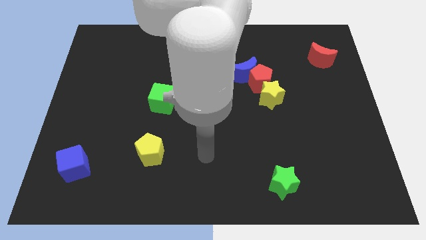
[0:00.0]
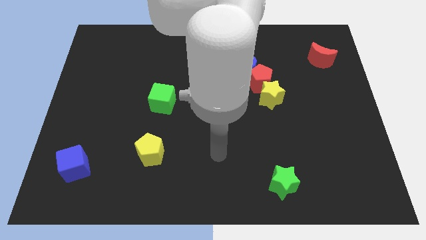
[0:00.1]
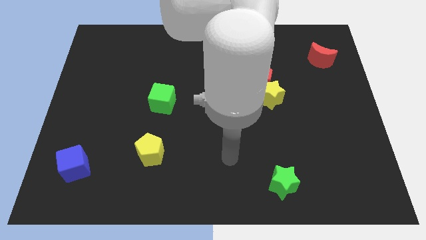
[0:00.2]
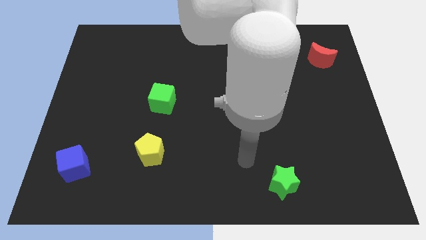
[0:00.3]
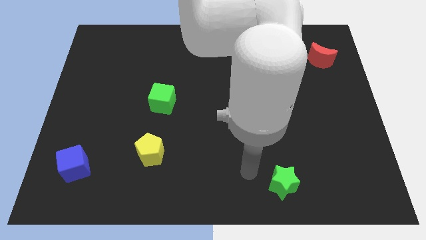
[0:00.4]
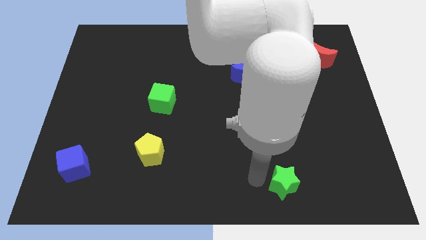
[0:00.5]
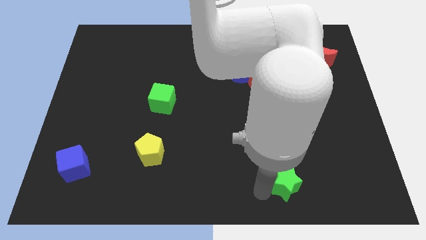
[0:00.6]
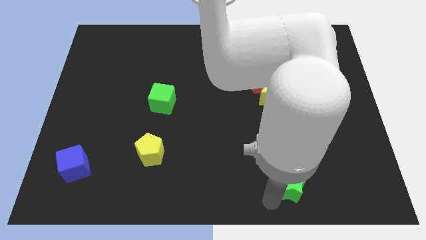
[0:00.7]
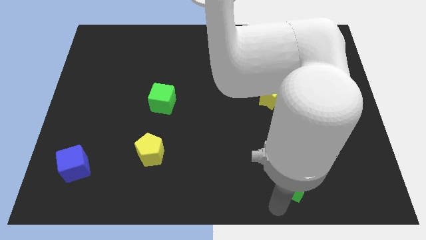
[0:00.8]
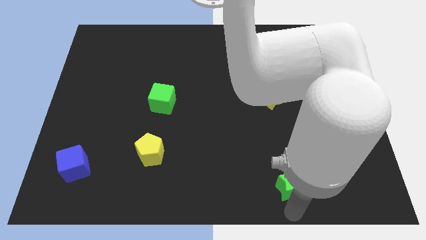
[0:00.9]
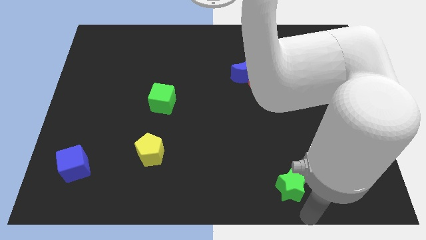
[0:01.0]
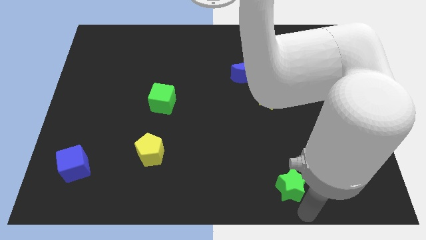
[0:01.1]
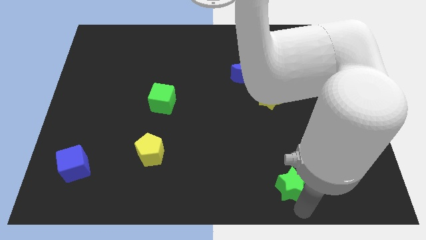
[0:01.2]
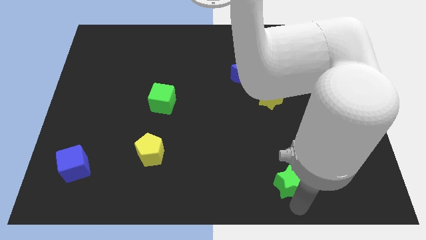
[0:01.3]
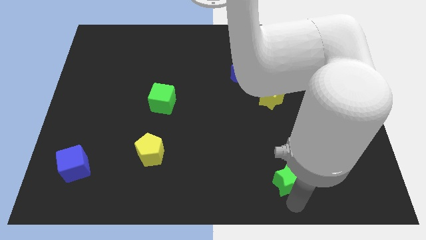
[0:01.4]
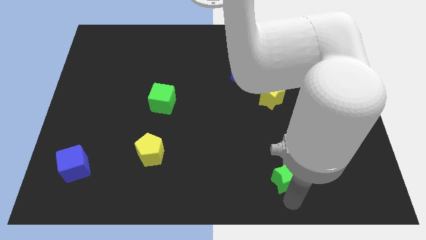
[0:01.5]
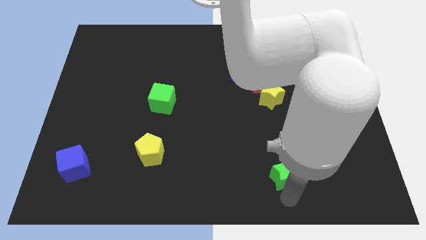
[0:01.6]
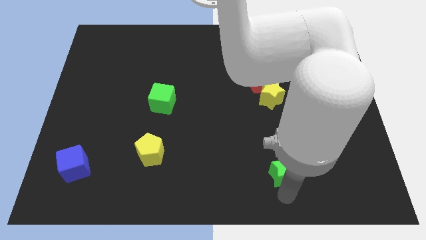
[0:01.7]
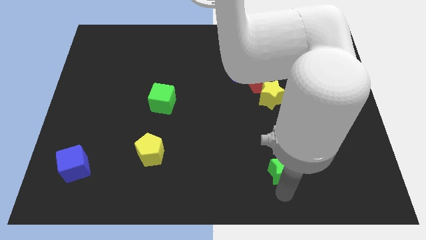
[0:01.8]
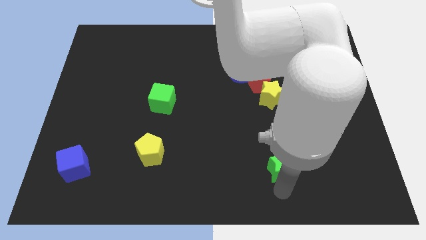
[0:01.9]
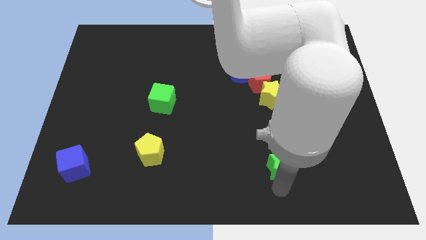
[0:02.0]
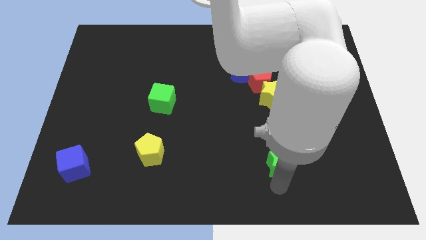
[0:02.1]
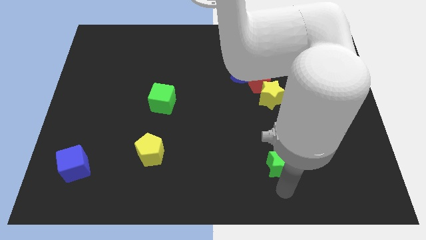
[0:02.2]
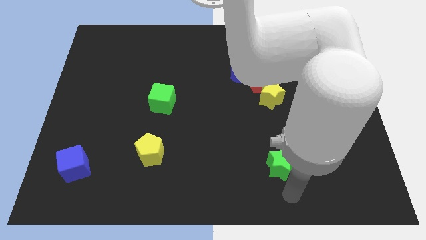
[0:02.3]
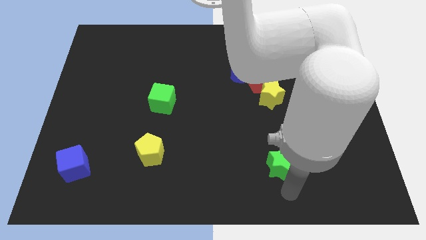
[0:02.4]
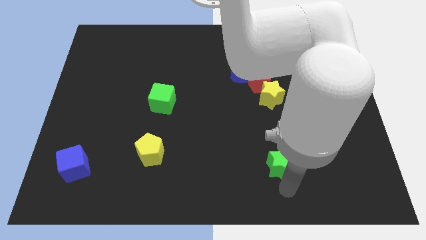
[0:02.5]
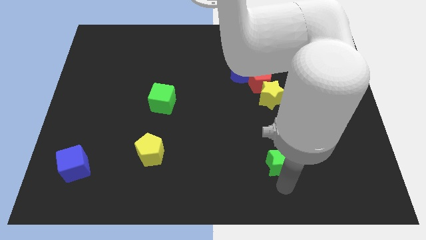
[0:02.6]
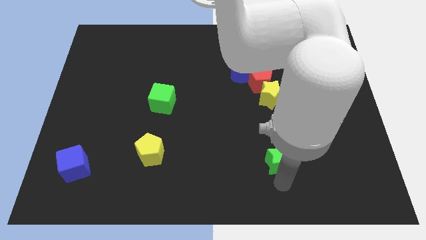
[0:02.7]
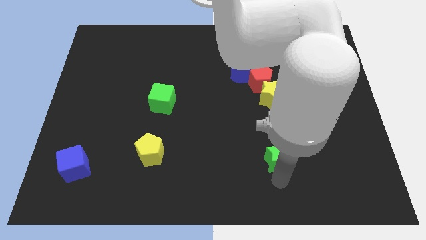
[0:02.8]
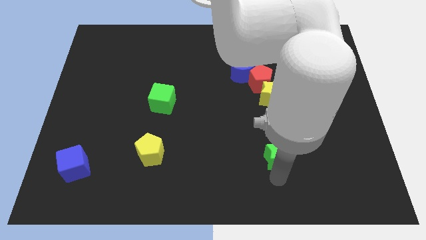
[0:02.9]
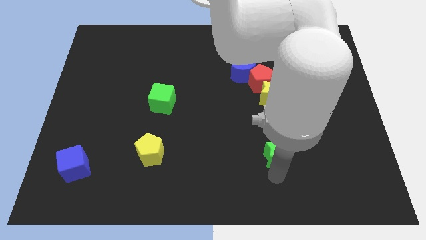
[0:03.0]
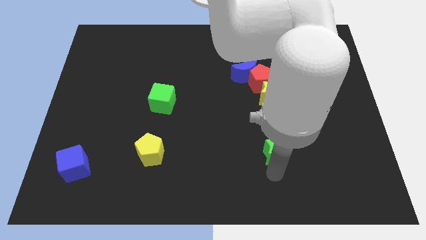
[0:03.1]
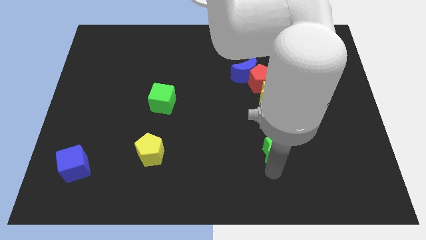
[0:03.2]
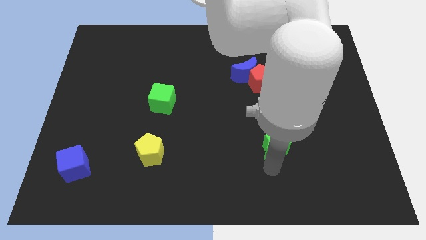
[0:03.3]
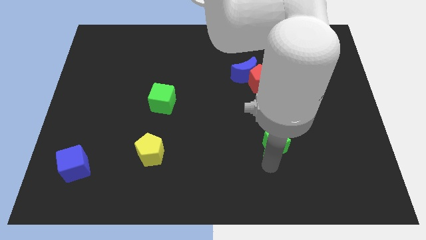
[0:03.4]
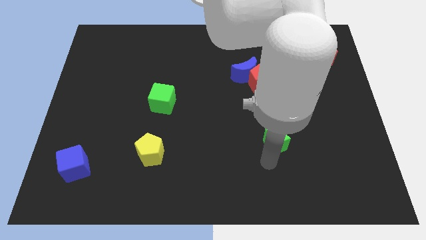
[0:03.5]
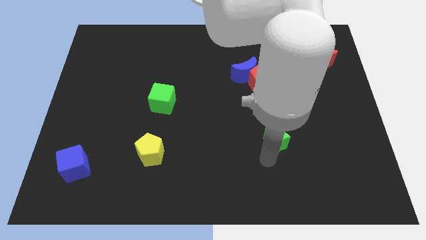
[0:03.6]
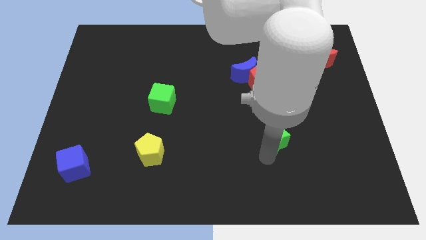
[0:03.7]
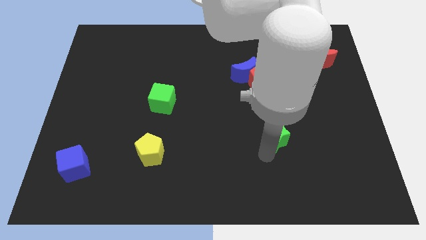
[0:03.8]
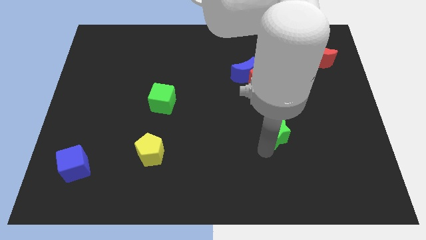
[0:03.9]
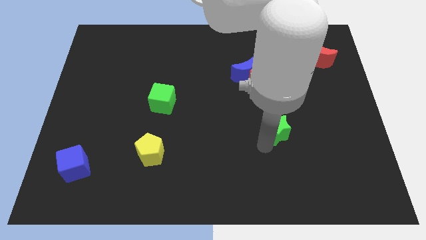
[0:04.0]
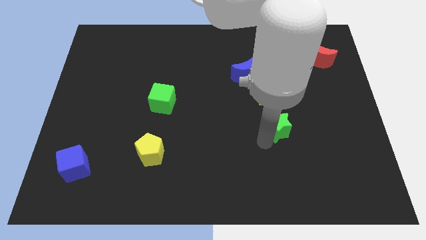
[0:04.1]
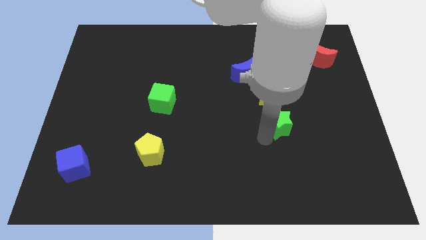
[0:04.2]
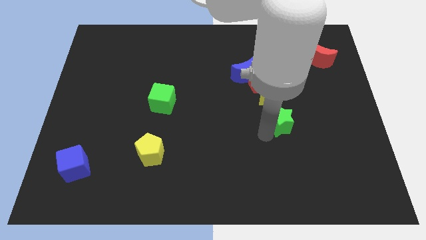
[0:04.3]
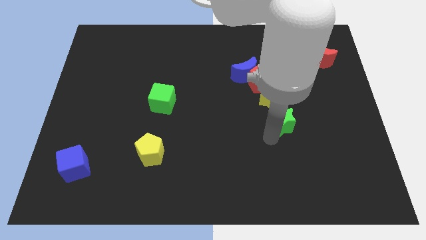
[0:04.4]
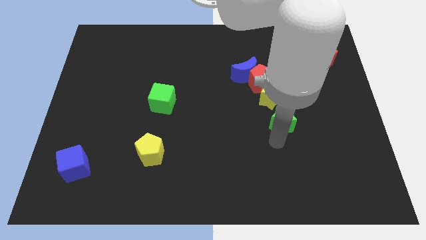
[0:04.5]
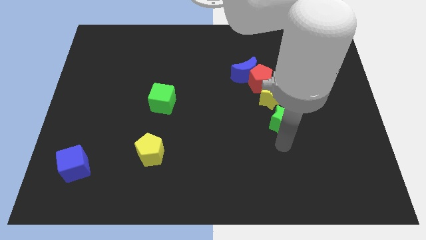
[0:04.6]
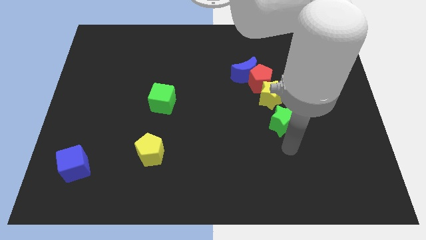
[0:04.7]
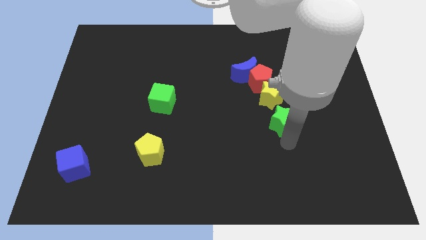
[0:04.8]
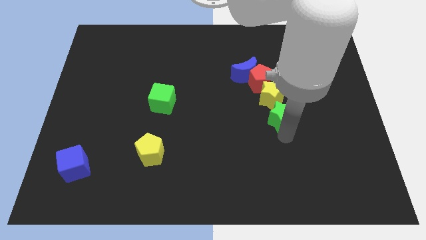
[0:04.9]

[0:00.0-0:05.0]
push the green star close to the yellow star

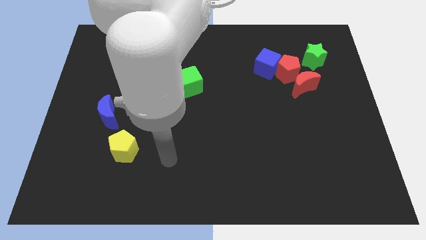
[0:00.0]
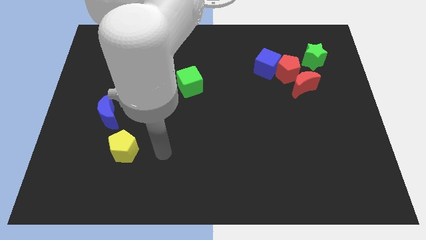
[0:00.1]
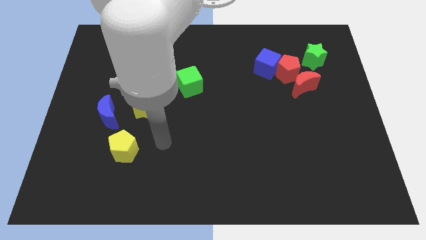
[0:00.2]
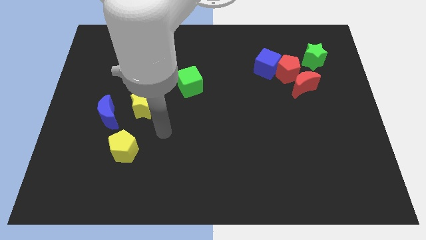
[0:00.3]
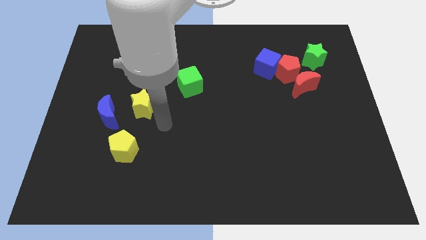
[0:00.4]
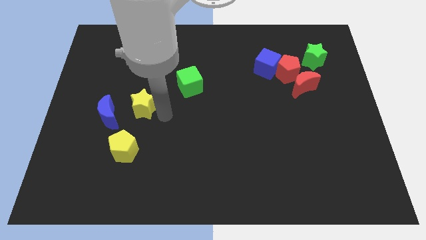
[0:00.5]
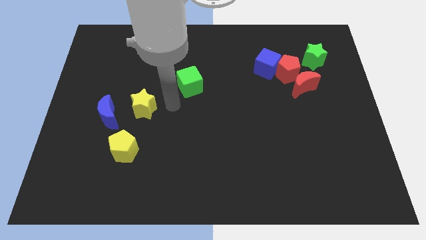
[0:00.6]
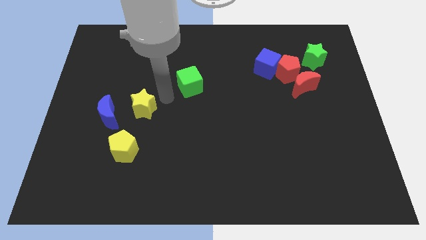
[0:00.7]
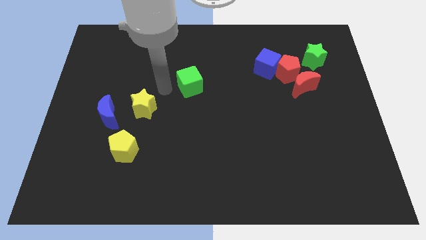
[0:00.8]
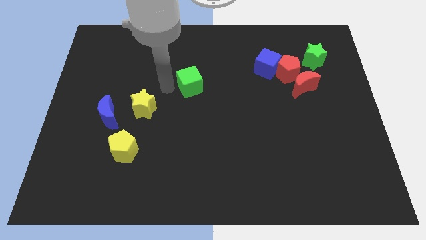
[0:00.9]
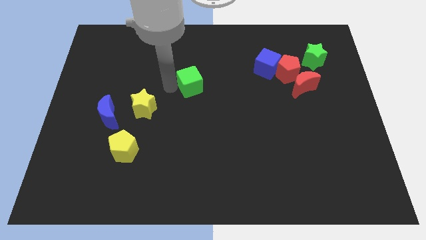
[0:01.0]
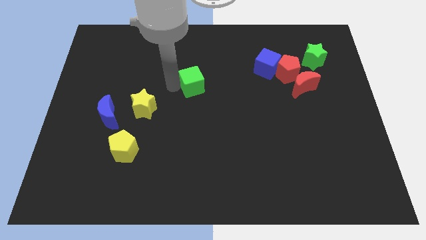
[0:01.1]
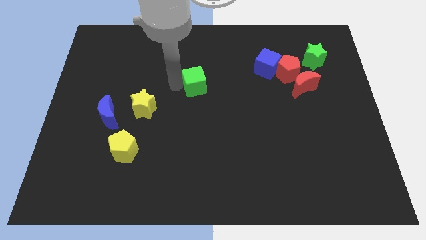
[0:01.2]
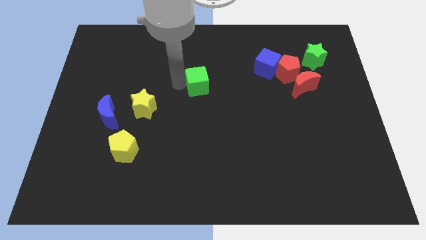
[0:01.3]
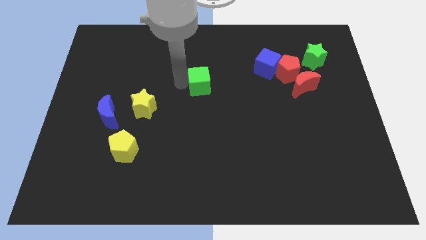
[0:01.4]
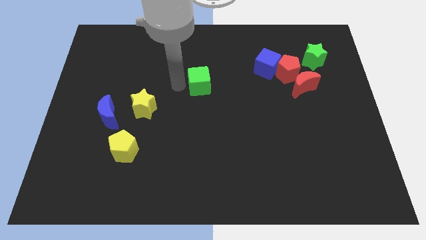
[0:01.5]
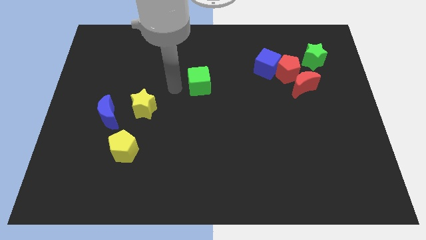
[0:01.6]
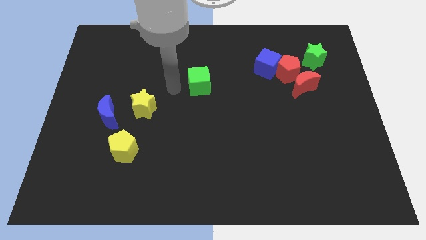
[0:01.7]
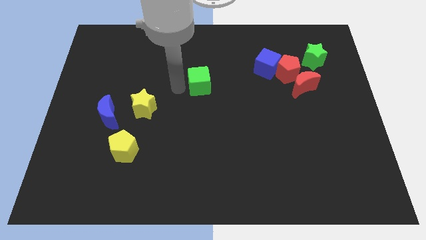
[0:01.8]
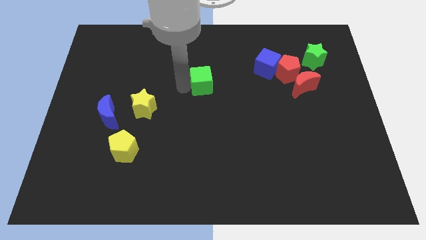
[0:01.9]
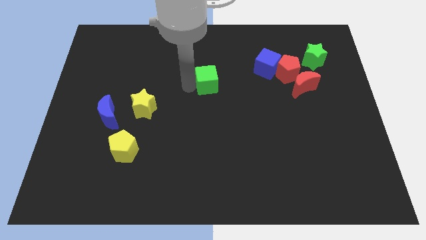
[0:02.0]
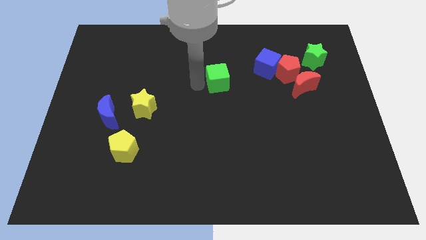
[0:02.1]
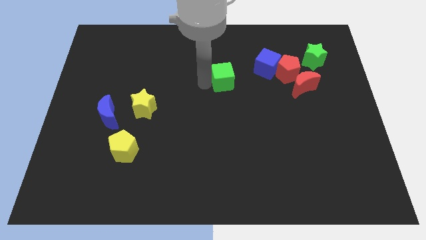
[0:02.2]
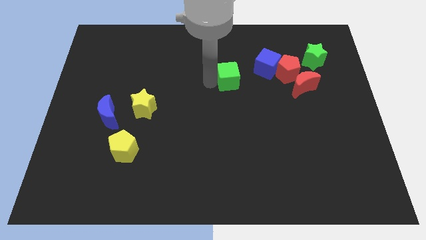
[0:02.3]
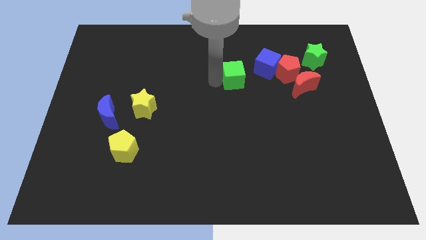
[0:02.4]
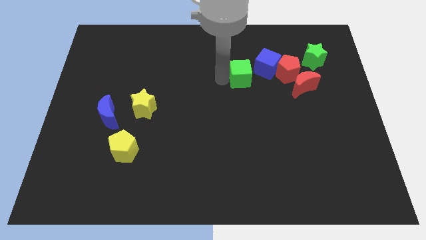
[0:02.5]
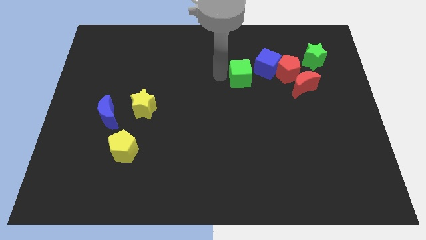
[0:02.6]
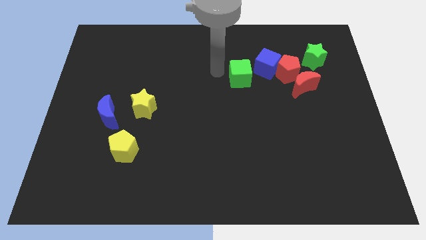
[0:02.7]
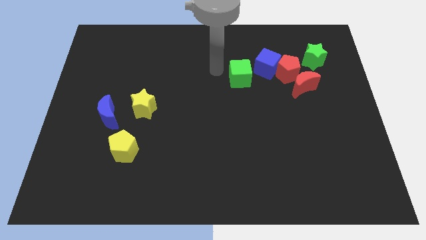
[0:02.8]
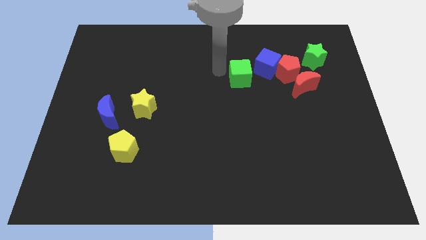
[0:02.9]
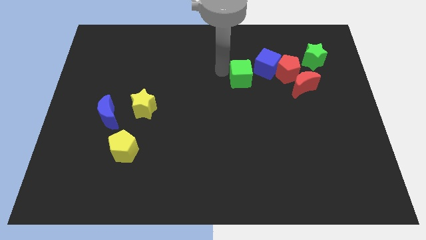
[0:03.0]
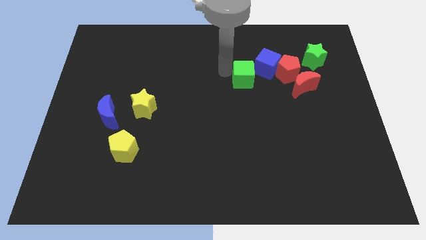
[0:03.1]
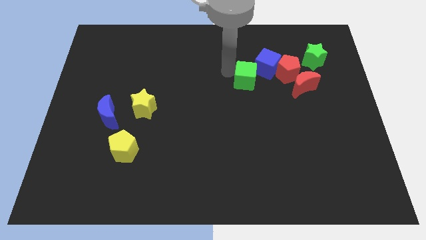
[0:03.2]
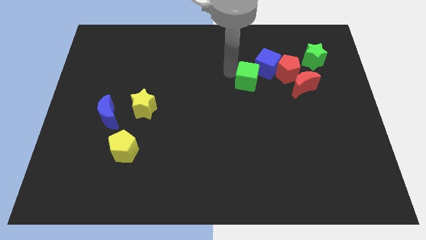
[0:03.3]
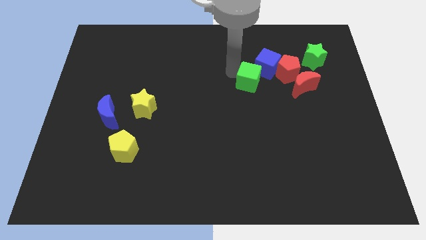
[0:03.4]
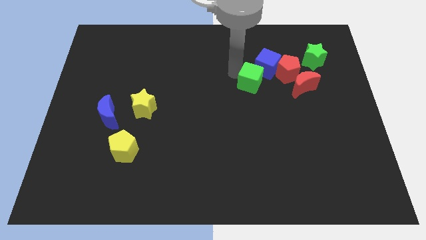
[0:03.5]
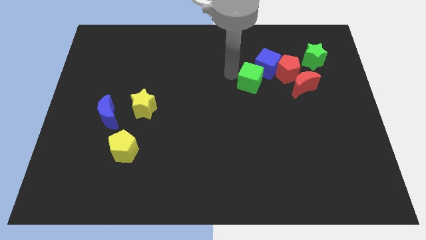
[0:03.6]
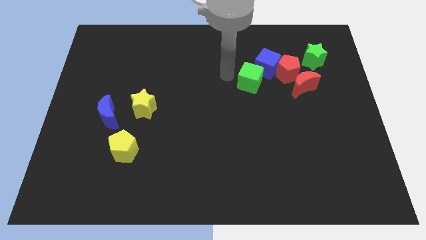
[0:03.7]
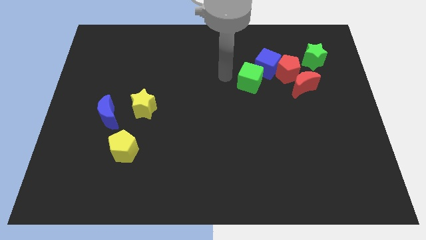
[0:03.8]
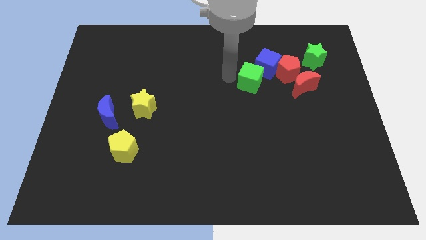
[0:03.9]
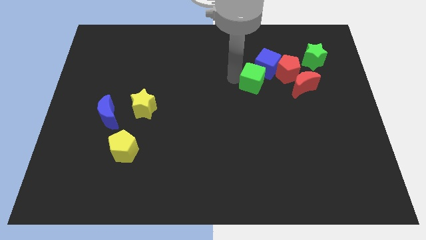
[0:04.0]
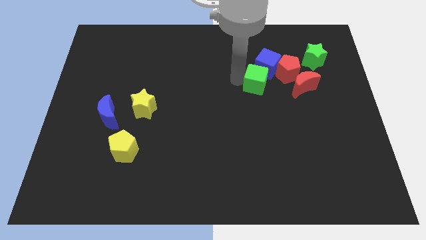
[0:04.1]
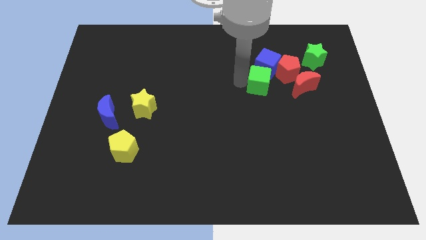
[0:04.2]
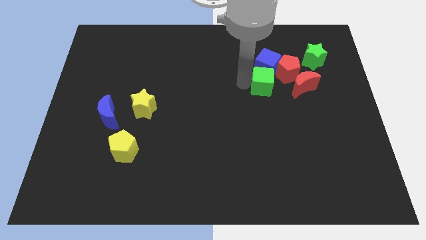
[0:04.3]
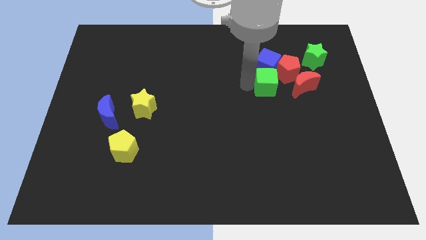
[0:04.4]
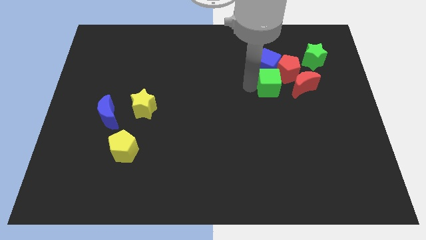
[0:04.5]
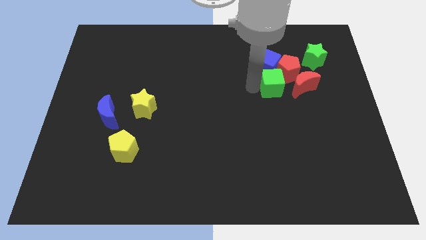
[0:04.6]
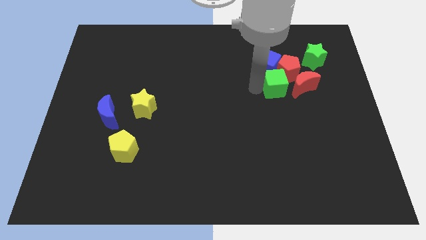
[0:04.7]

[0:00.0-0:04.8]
slide the green cube towards the red pentagon
